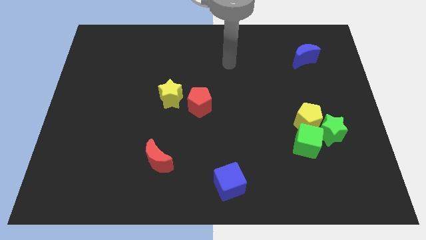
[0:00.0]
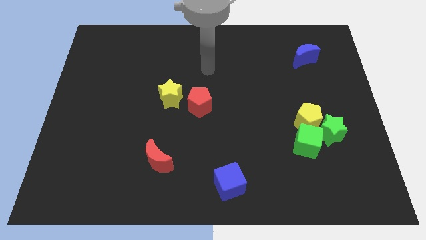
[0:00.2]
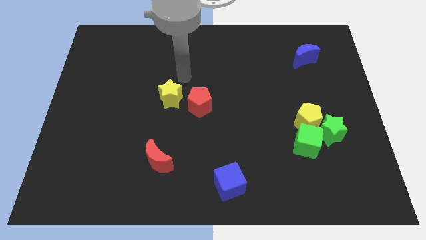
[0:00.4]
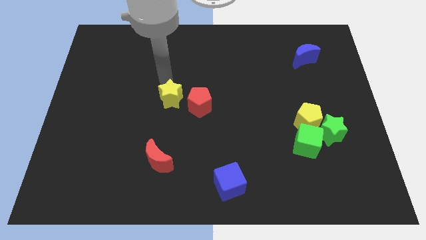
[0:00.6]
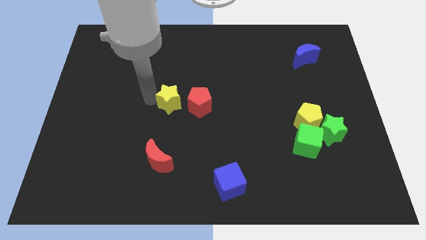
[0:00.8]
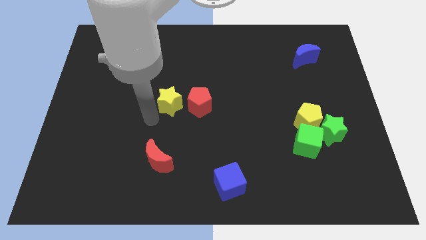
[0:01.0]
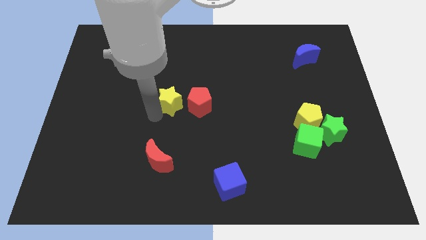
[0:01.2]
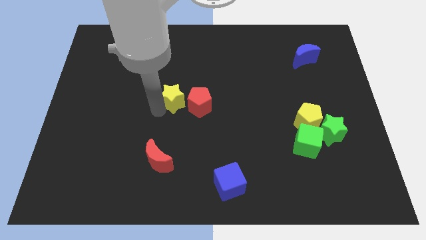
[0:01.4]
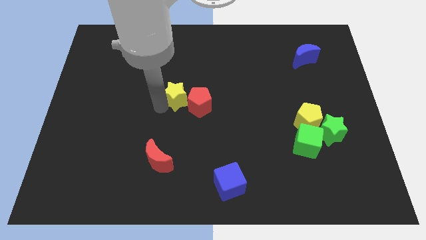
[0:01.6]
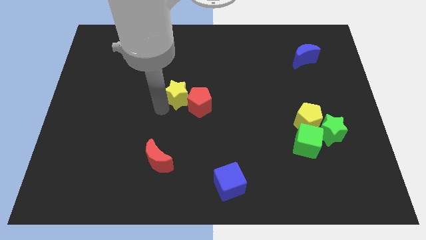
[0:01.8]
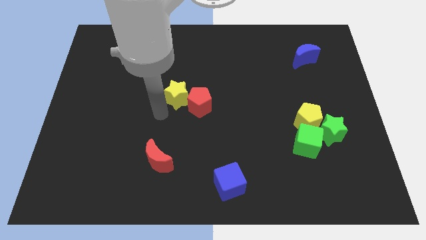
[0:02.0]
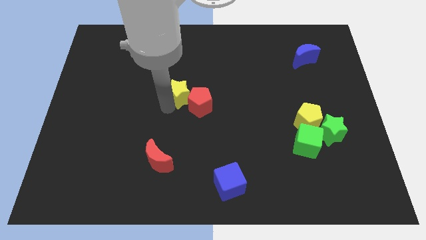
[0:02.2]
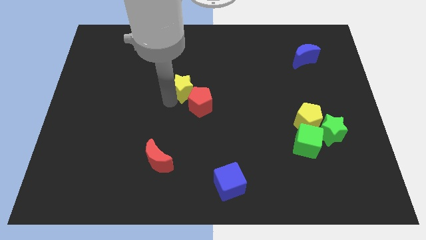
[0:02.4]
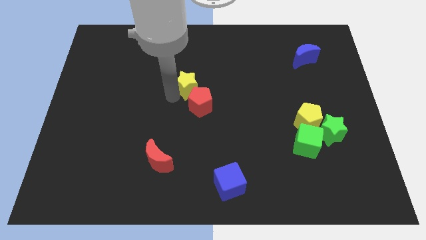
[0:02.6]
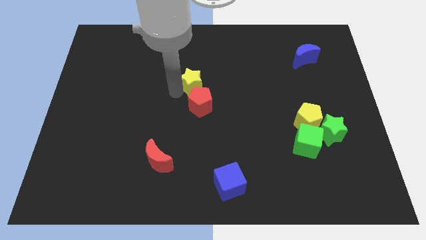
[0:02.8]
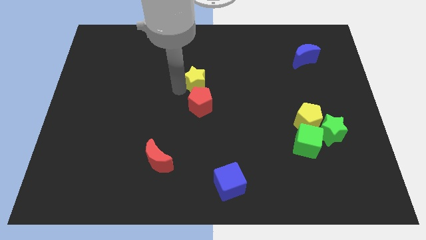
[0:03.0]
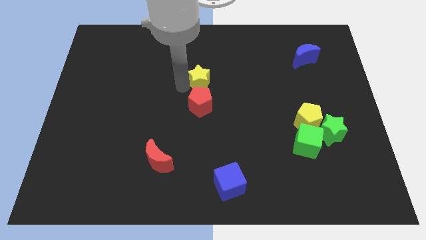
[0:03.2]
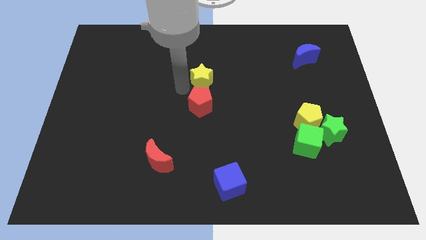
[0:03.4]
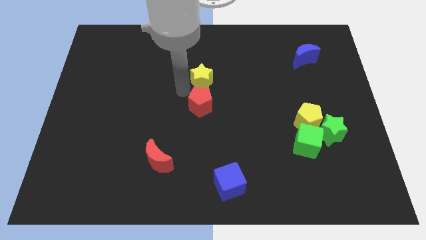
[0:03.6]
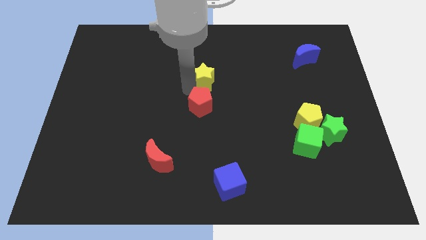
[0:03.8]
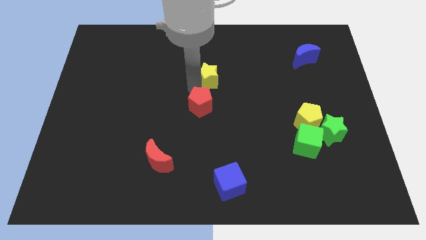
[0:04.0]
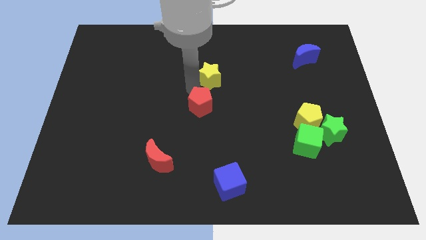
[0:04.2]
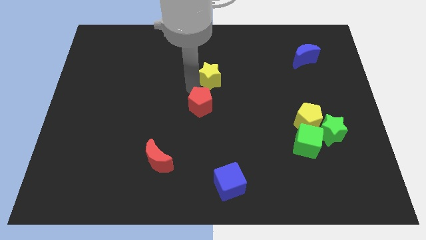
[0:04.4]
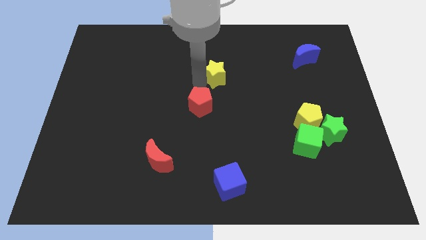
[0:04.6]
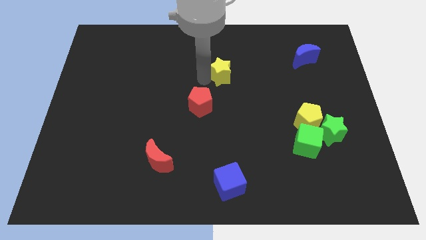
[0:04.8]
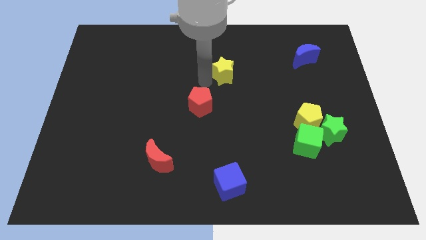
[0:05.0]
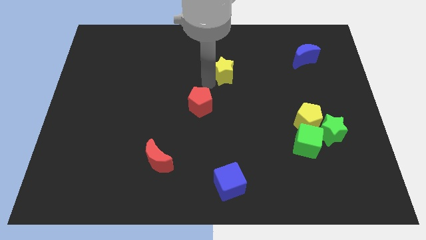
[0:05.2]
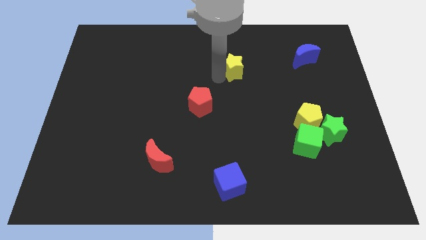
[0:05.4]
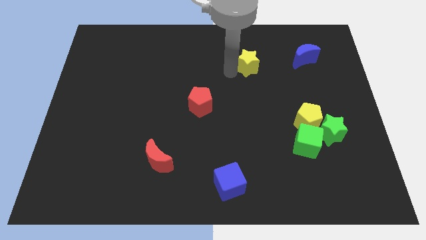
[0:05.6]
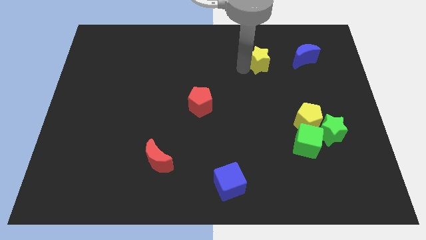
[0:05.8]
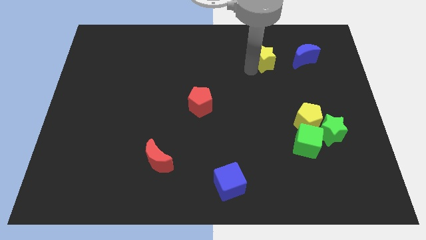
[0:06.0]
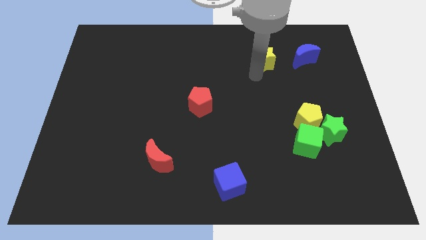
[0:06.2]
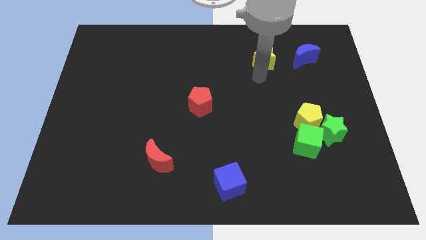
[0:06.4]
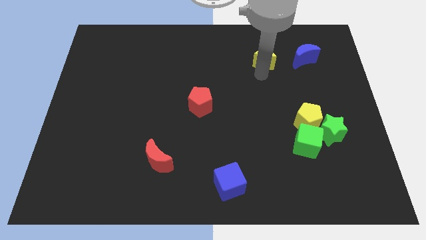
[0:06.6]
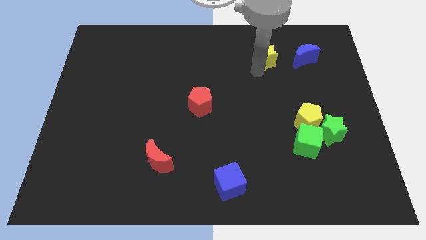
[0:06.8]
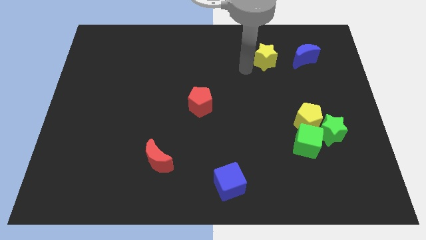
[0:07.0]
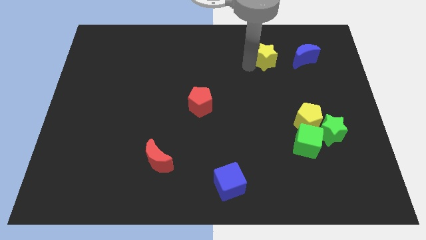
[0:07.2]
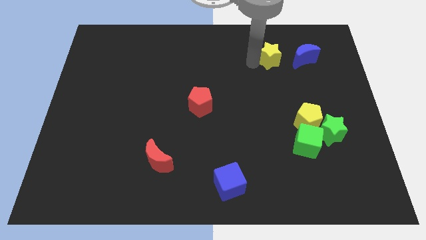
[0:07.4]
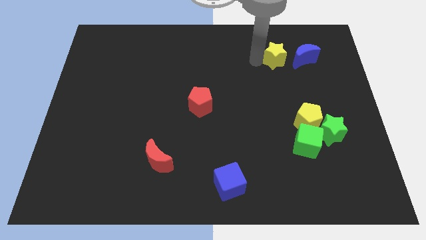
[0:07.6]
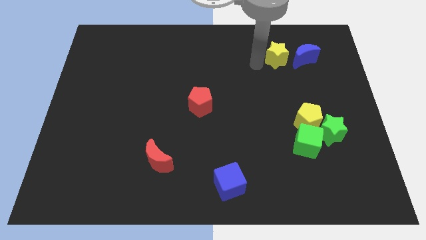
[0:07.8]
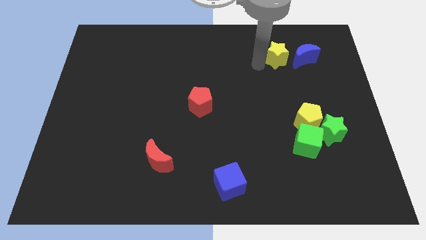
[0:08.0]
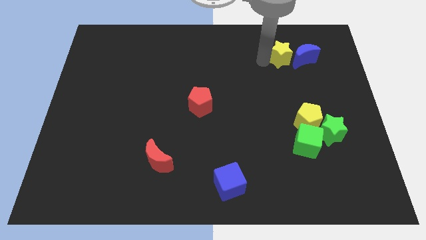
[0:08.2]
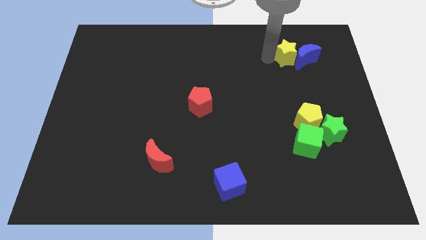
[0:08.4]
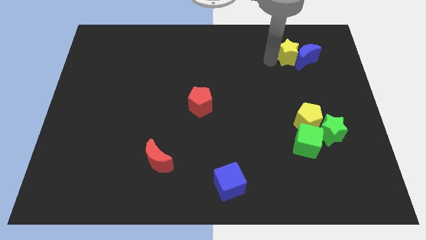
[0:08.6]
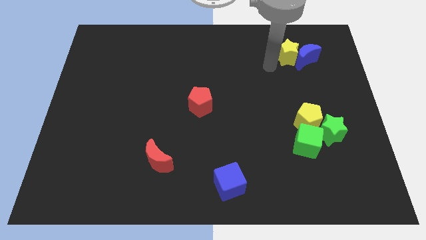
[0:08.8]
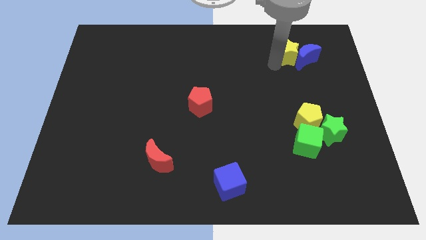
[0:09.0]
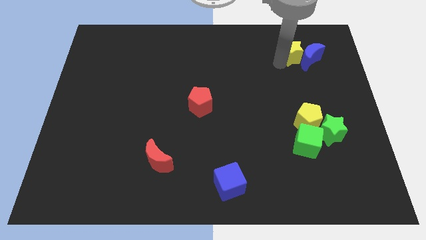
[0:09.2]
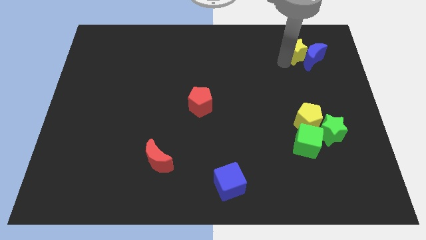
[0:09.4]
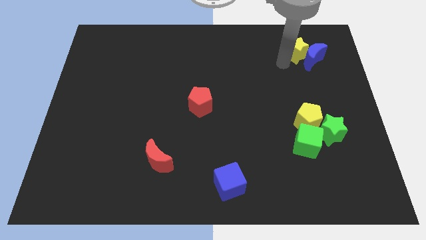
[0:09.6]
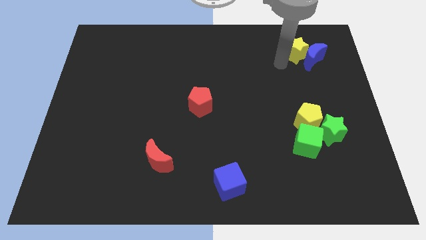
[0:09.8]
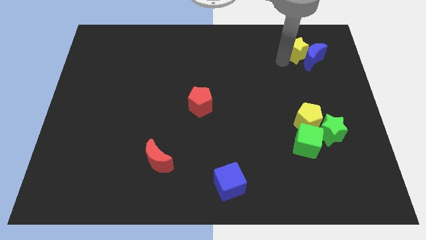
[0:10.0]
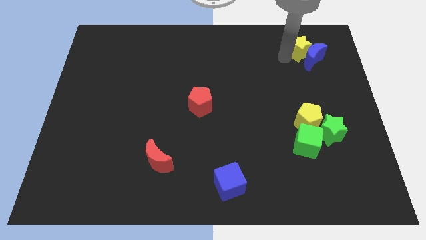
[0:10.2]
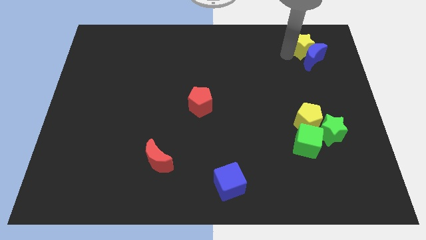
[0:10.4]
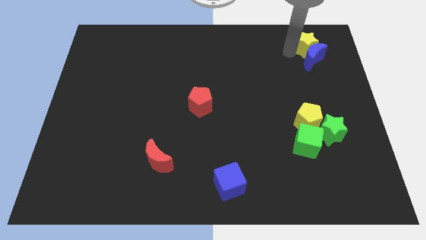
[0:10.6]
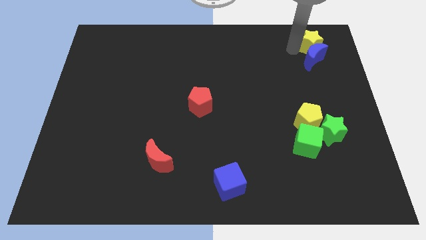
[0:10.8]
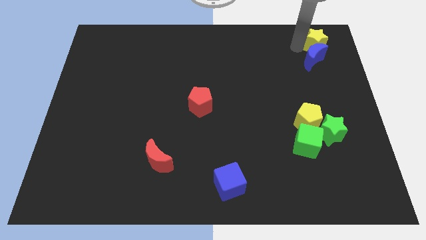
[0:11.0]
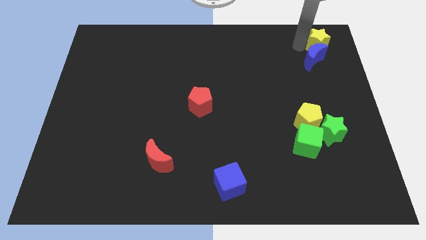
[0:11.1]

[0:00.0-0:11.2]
push the yellow star to the top right corner
